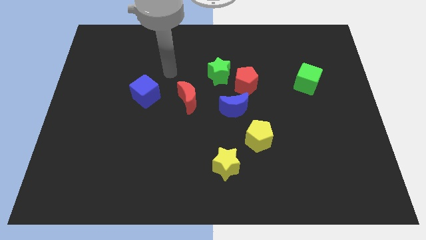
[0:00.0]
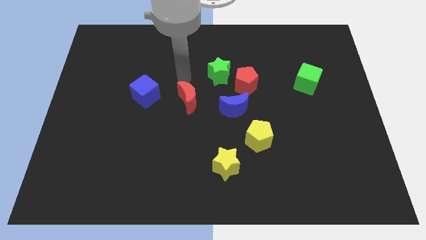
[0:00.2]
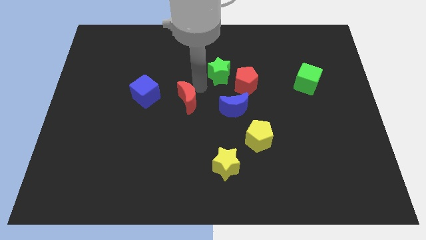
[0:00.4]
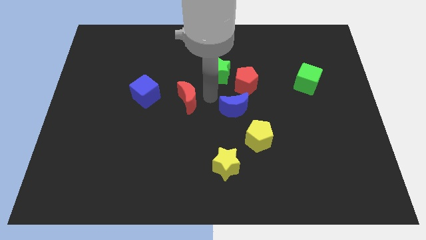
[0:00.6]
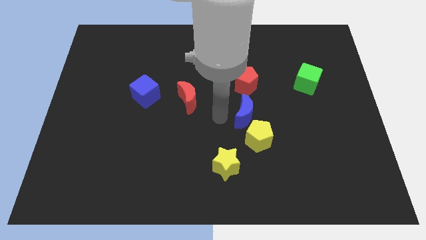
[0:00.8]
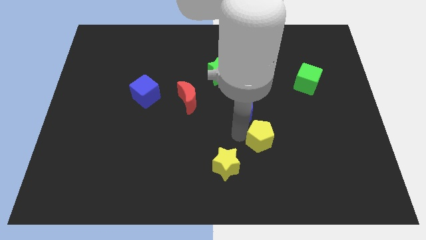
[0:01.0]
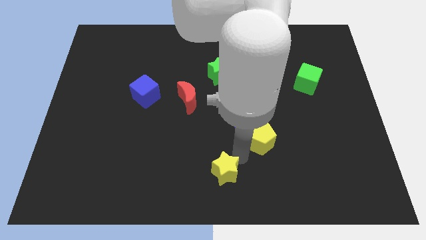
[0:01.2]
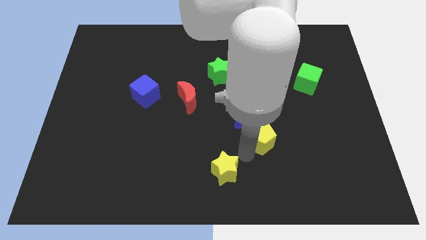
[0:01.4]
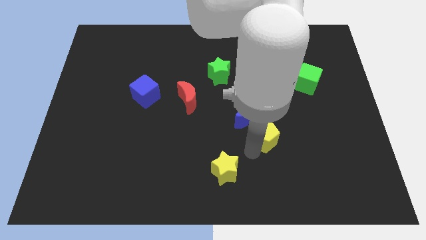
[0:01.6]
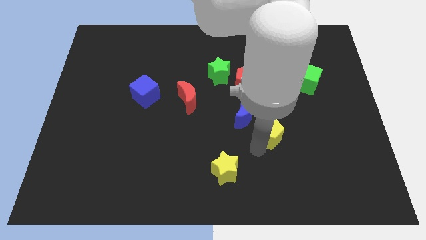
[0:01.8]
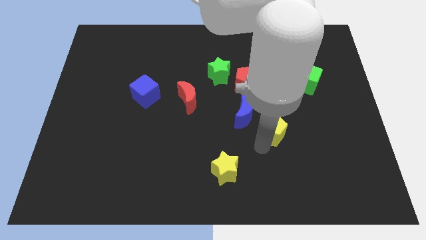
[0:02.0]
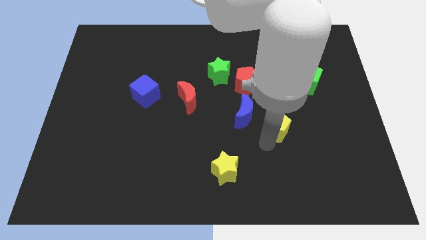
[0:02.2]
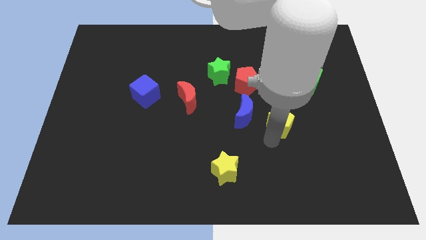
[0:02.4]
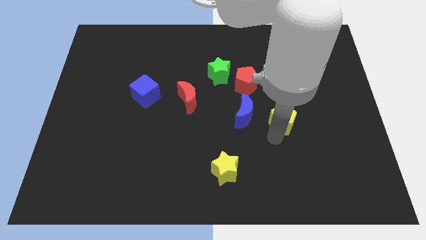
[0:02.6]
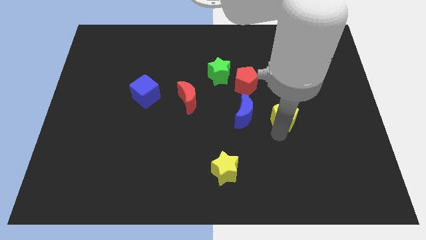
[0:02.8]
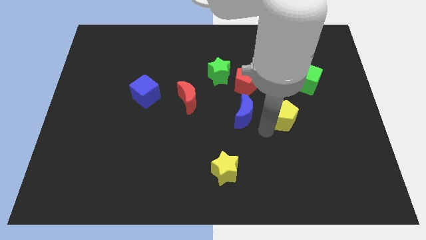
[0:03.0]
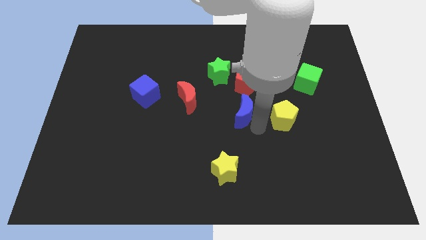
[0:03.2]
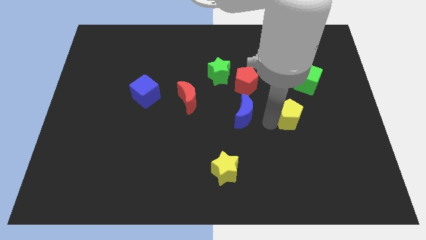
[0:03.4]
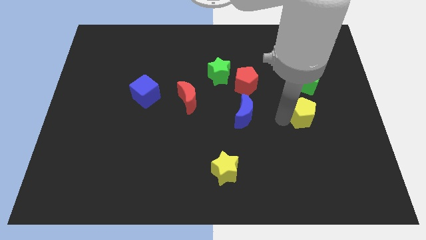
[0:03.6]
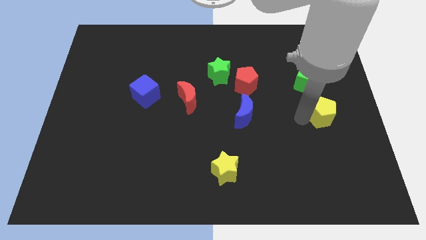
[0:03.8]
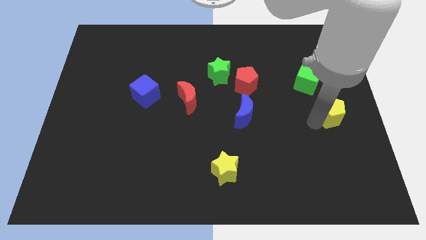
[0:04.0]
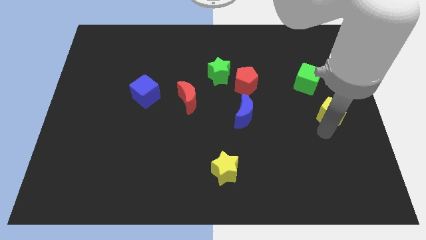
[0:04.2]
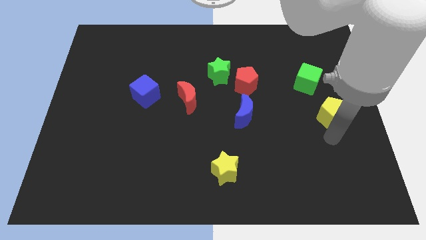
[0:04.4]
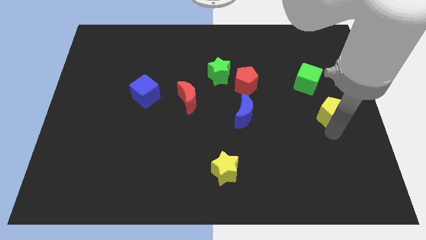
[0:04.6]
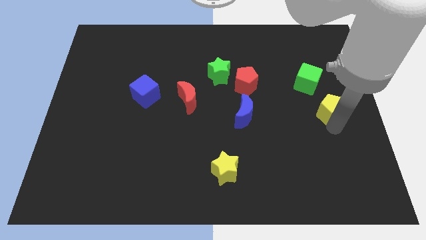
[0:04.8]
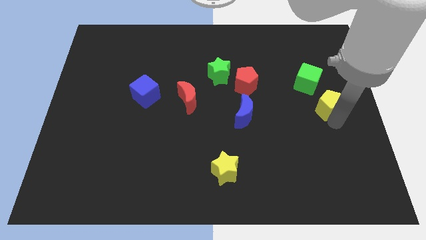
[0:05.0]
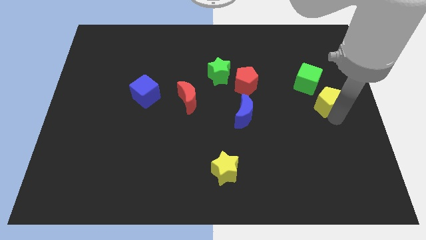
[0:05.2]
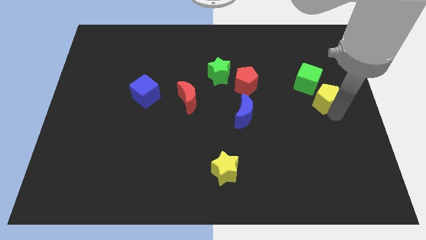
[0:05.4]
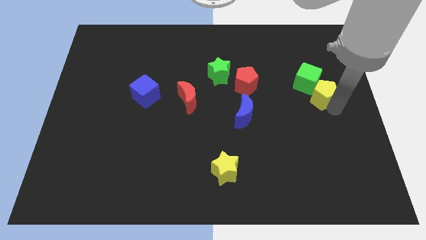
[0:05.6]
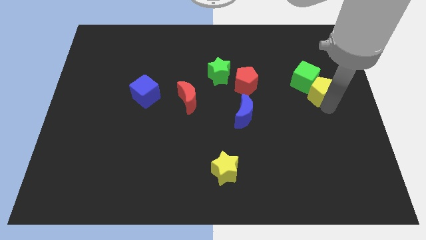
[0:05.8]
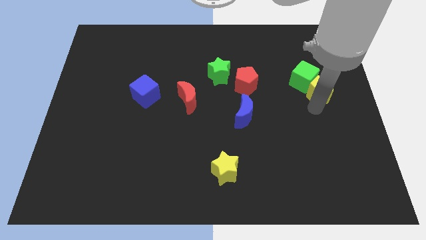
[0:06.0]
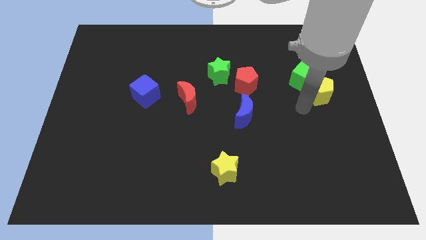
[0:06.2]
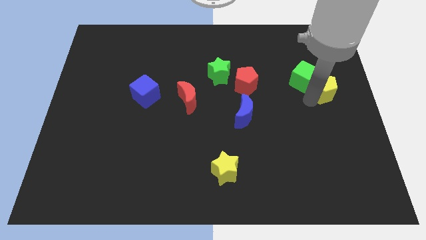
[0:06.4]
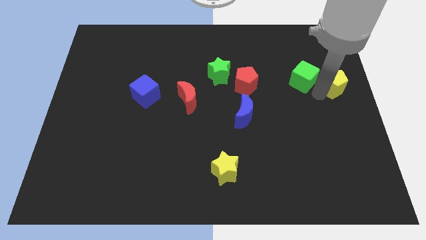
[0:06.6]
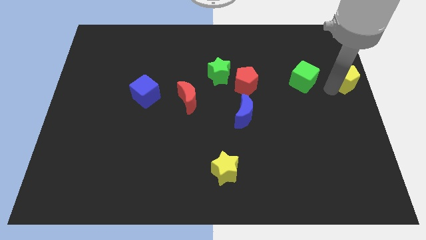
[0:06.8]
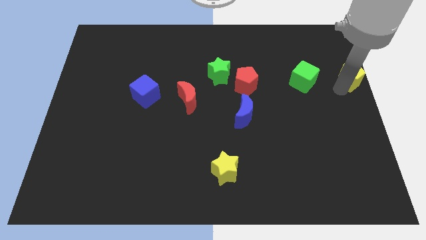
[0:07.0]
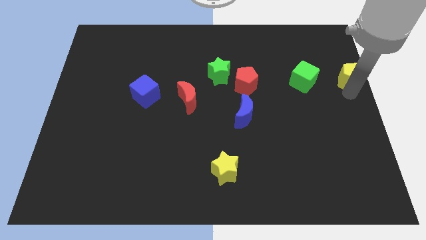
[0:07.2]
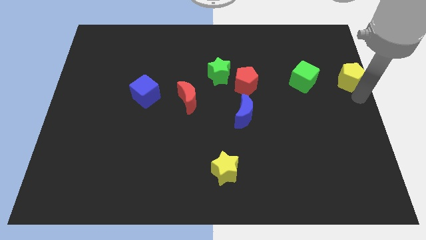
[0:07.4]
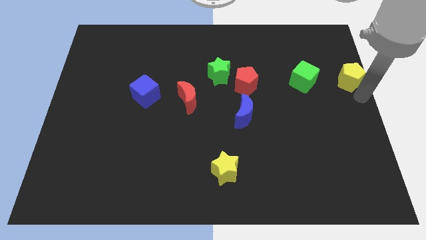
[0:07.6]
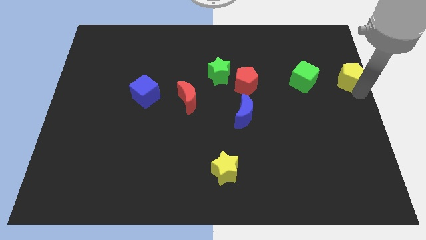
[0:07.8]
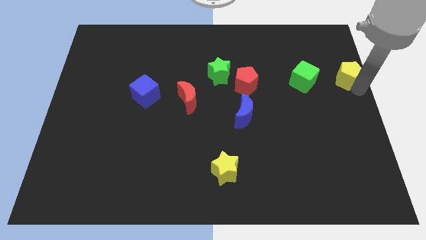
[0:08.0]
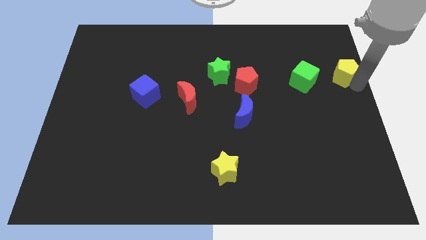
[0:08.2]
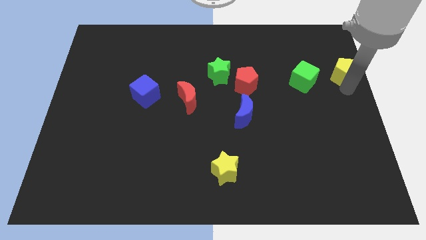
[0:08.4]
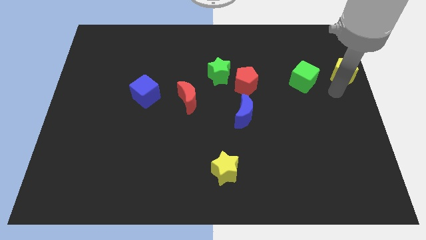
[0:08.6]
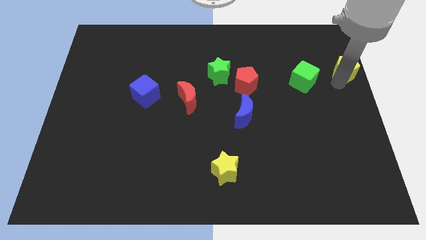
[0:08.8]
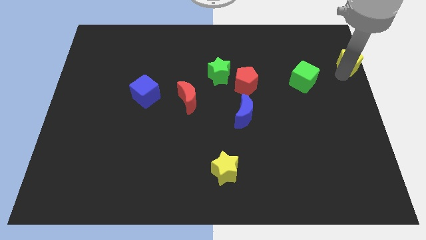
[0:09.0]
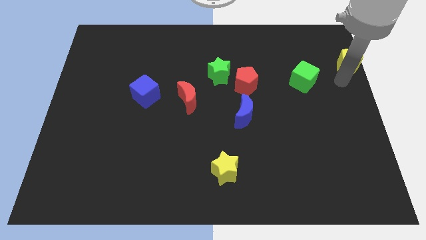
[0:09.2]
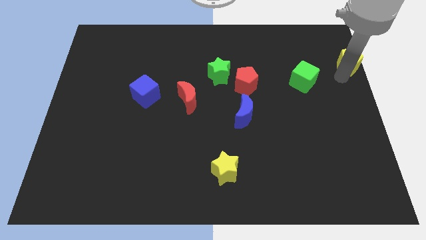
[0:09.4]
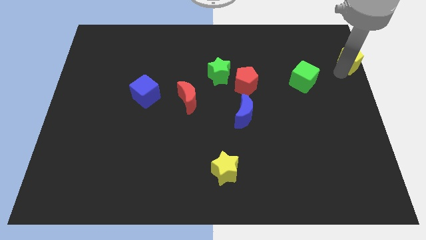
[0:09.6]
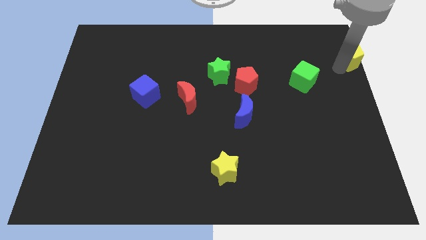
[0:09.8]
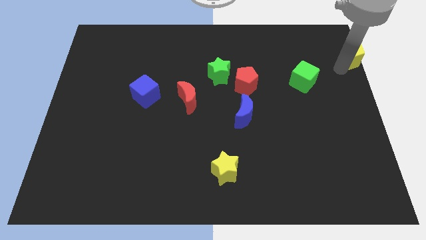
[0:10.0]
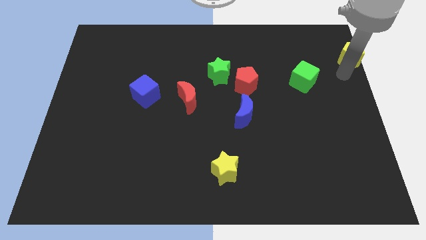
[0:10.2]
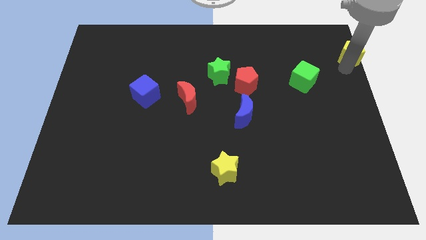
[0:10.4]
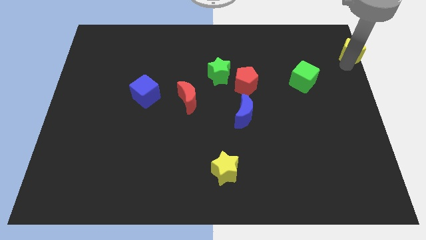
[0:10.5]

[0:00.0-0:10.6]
slide the yellow pentagon to the top right corner

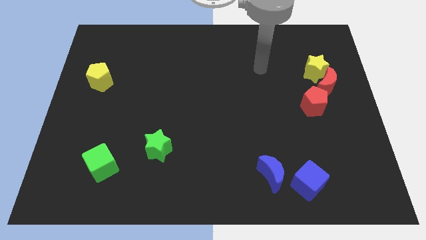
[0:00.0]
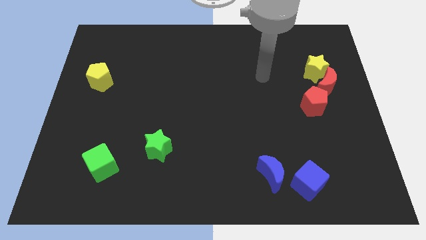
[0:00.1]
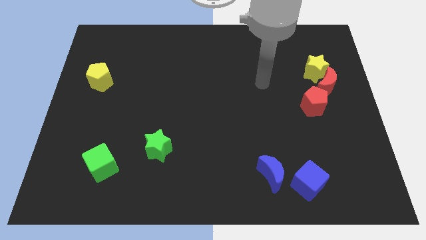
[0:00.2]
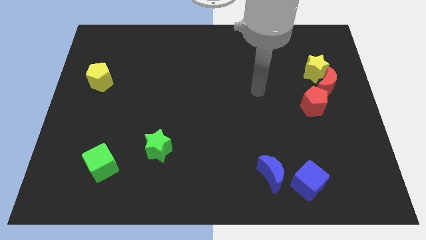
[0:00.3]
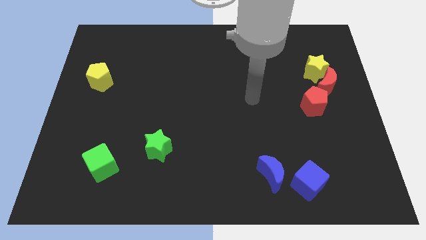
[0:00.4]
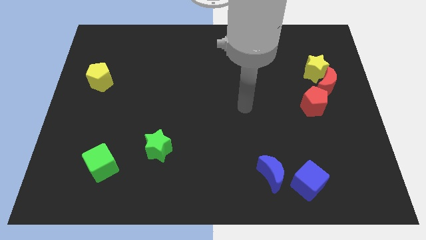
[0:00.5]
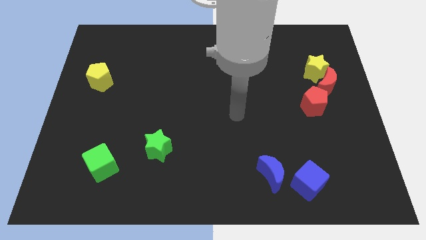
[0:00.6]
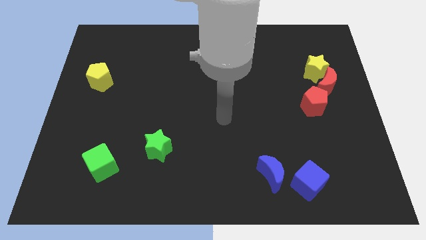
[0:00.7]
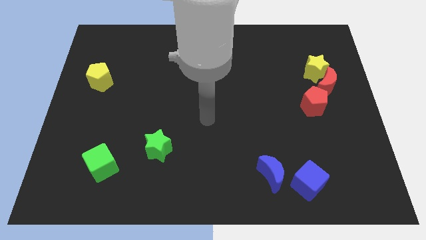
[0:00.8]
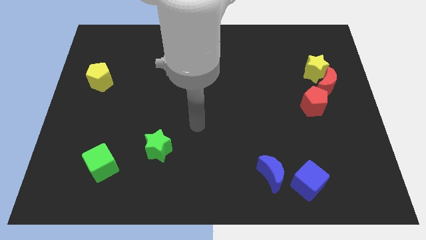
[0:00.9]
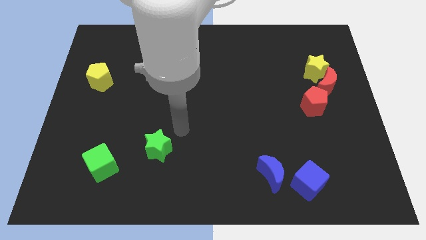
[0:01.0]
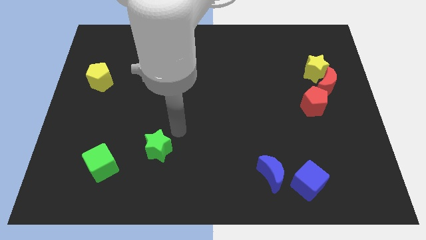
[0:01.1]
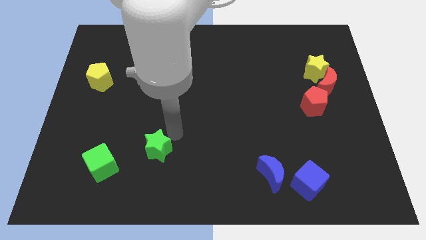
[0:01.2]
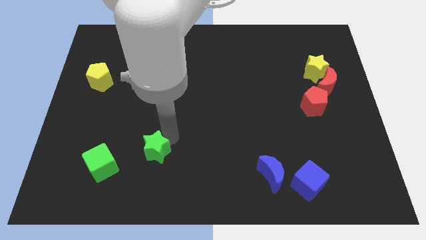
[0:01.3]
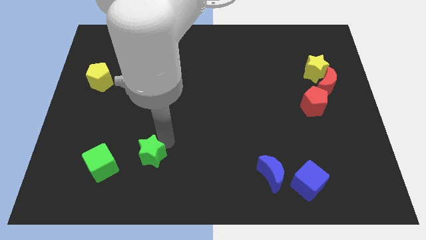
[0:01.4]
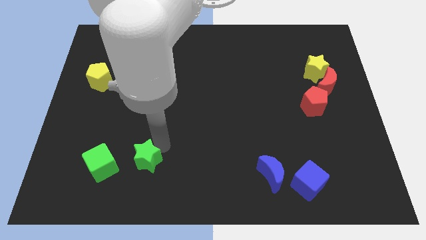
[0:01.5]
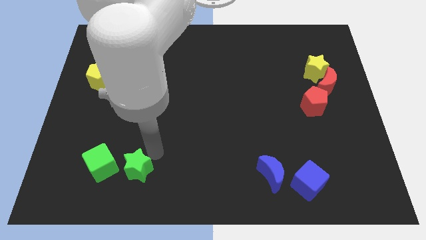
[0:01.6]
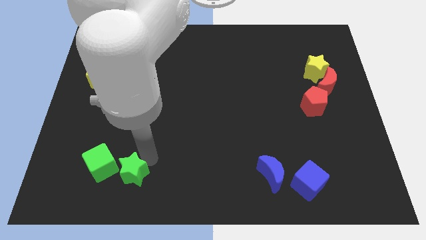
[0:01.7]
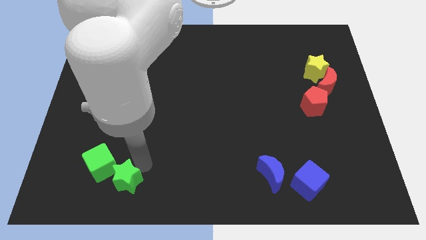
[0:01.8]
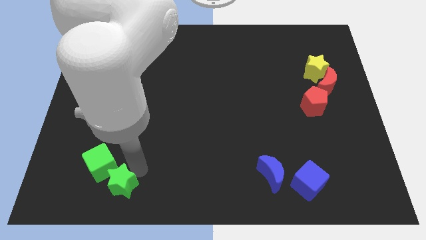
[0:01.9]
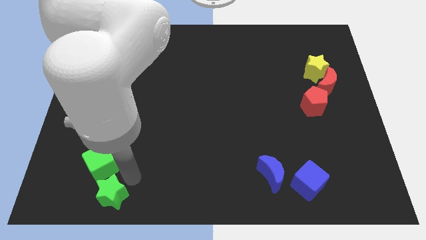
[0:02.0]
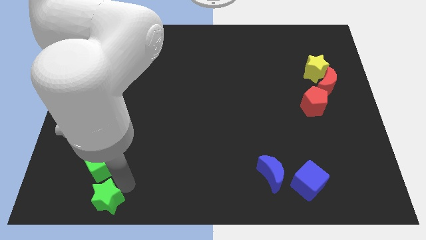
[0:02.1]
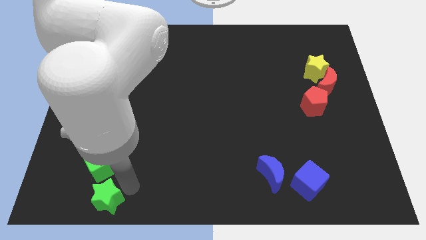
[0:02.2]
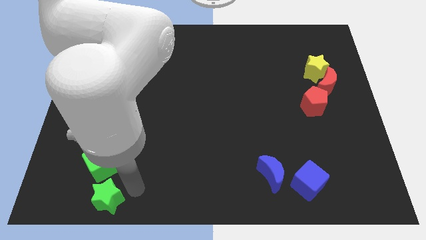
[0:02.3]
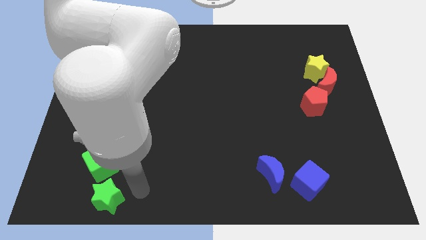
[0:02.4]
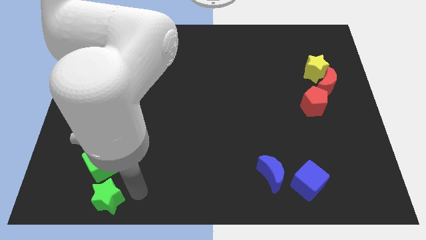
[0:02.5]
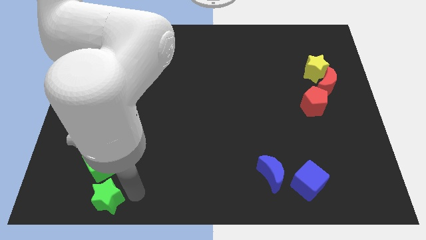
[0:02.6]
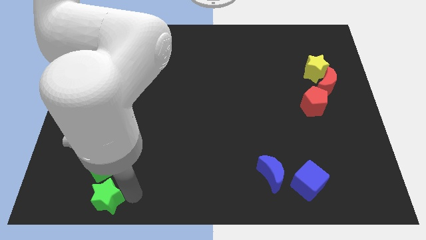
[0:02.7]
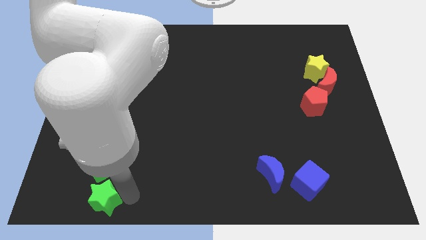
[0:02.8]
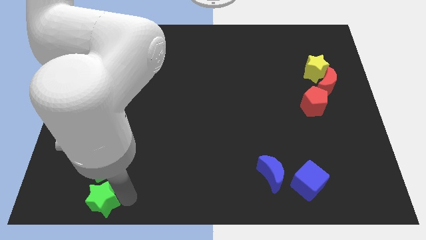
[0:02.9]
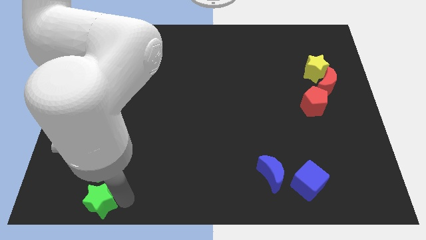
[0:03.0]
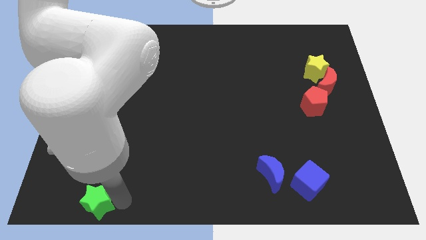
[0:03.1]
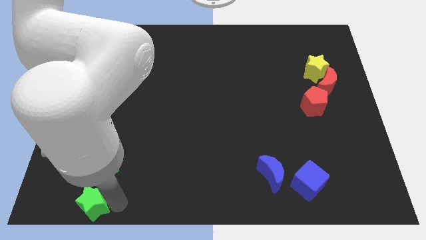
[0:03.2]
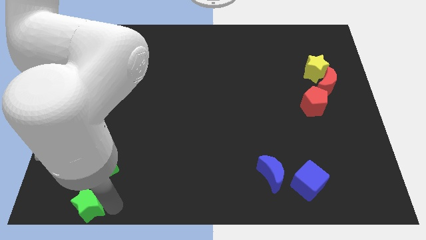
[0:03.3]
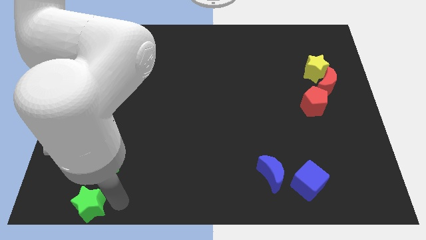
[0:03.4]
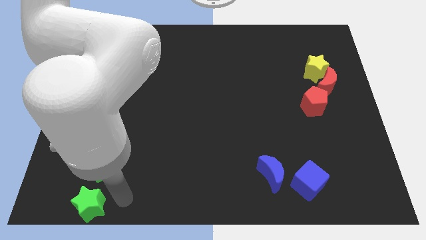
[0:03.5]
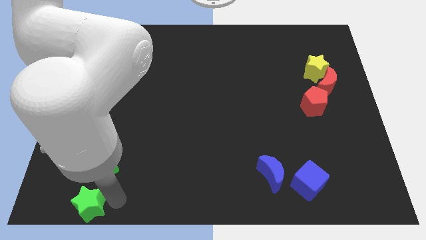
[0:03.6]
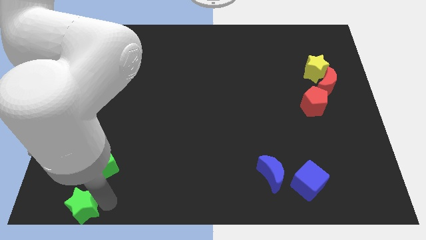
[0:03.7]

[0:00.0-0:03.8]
push the green star to the bottom left corner
